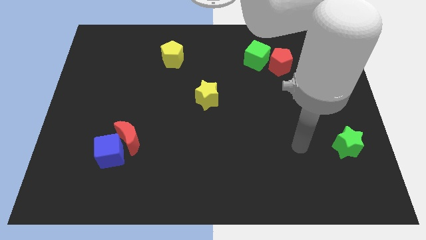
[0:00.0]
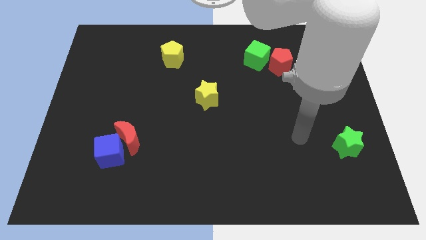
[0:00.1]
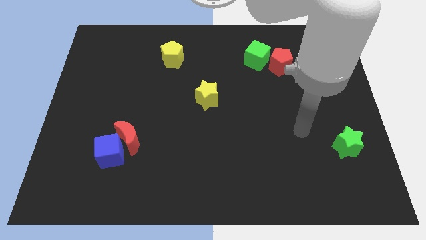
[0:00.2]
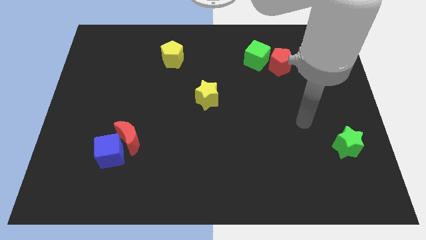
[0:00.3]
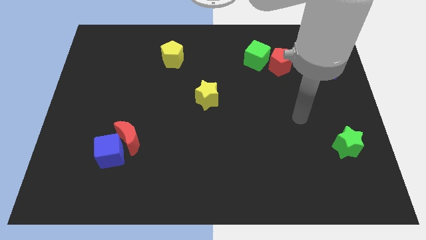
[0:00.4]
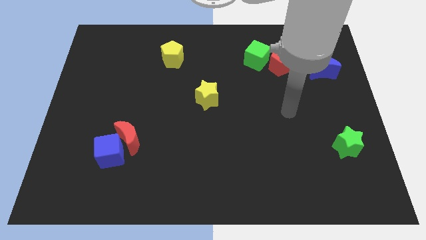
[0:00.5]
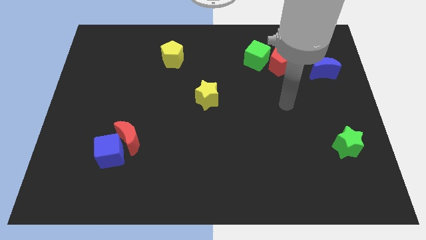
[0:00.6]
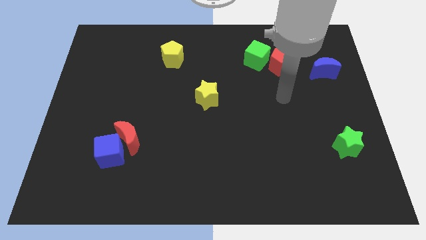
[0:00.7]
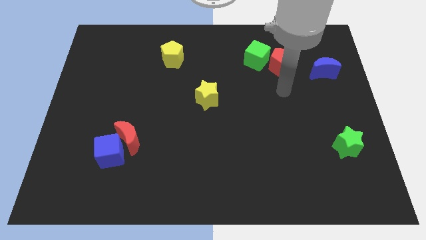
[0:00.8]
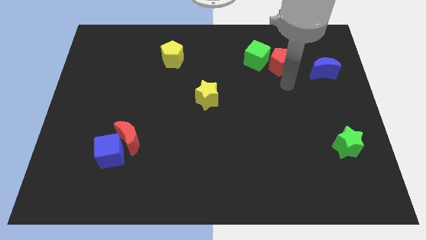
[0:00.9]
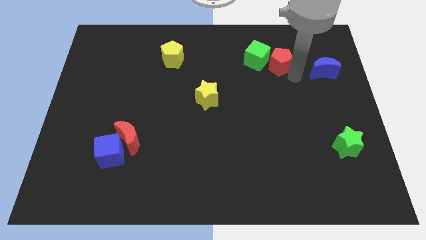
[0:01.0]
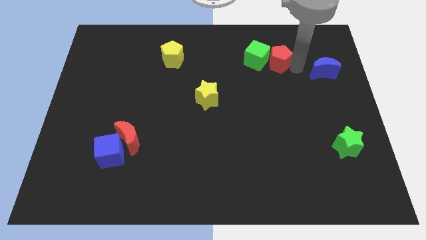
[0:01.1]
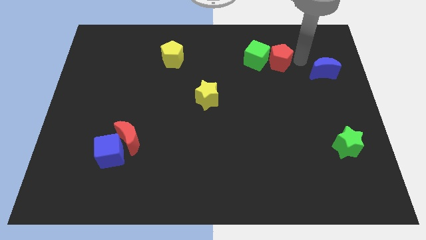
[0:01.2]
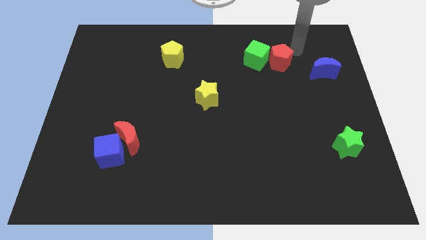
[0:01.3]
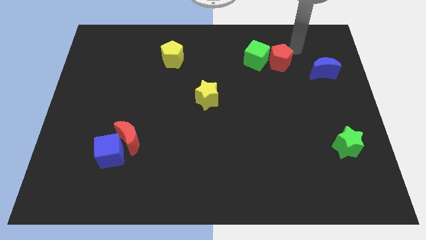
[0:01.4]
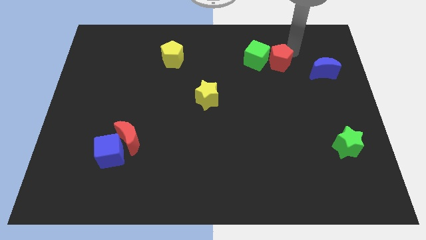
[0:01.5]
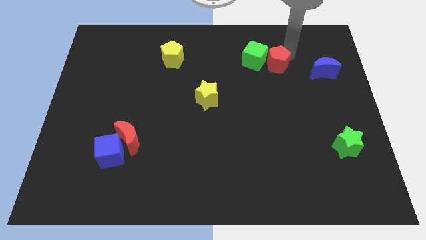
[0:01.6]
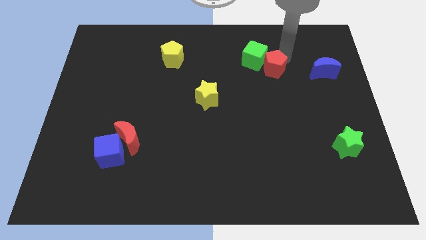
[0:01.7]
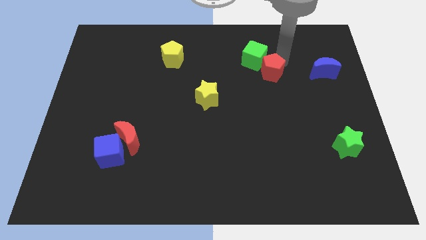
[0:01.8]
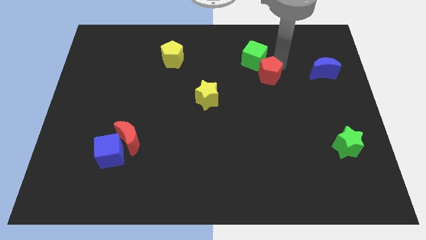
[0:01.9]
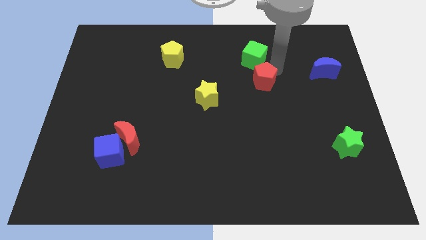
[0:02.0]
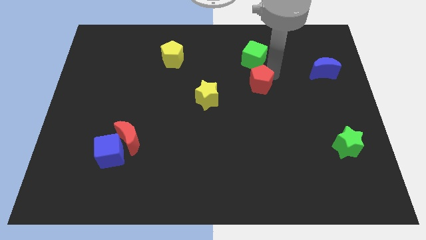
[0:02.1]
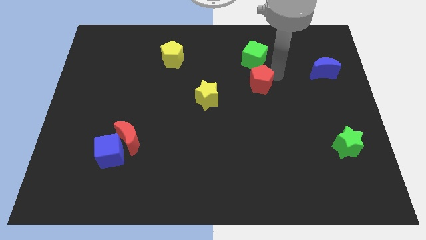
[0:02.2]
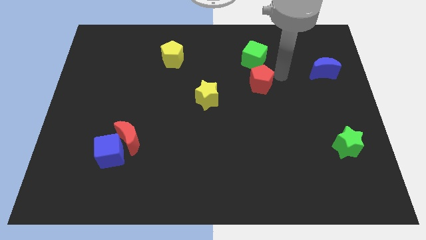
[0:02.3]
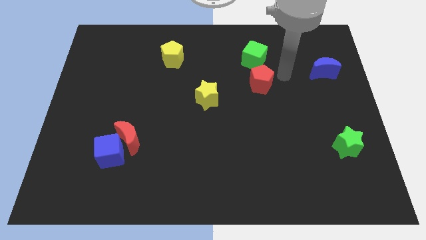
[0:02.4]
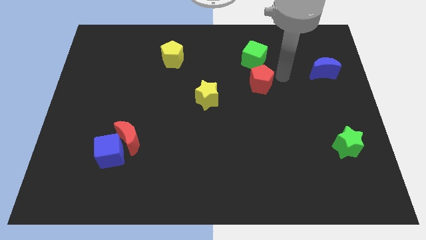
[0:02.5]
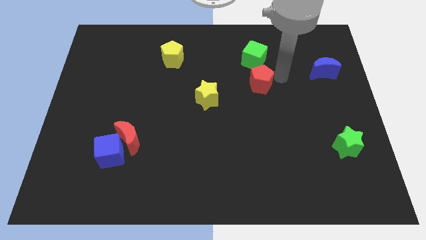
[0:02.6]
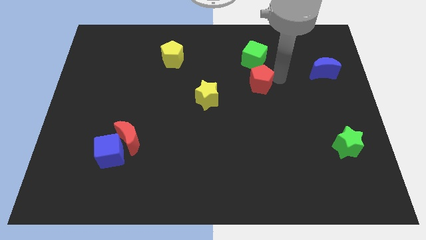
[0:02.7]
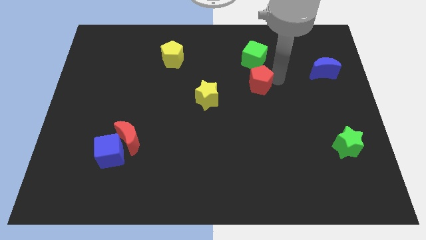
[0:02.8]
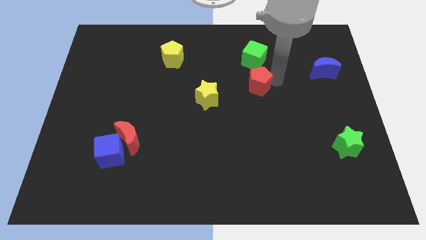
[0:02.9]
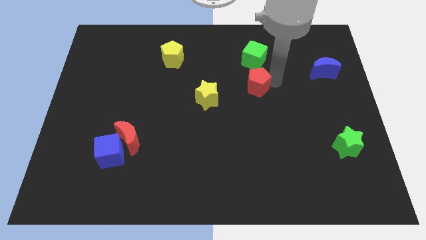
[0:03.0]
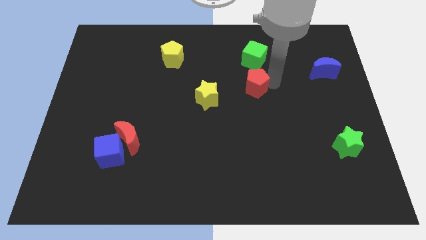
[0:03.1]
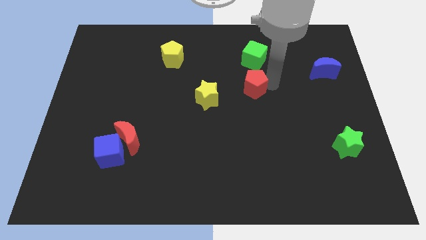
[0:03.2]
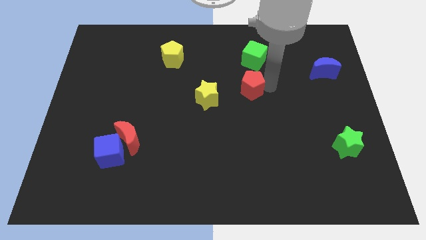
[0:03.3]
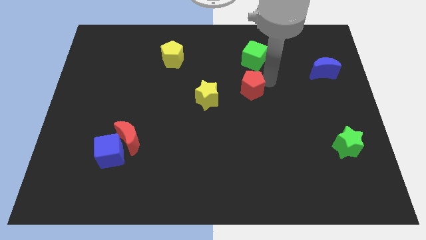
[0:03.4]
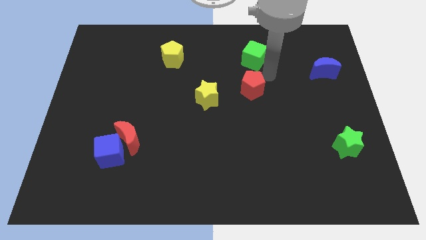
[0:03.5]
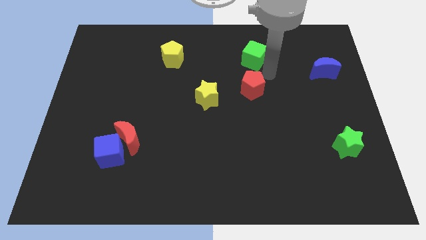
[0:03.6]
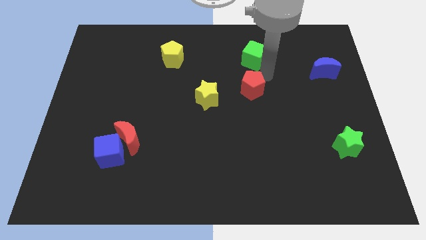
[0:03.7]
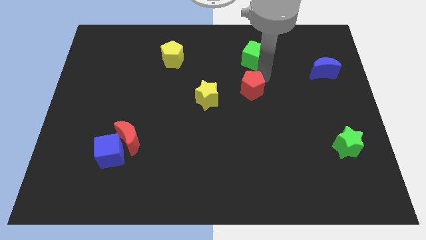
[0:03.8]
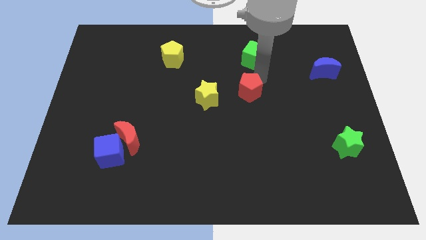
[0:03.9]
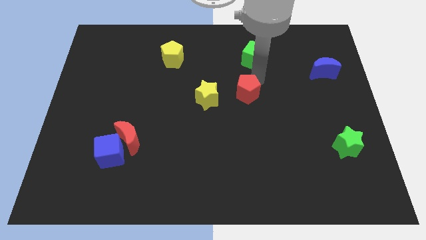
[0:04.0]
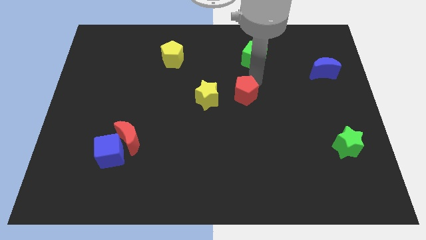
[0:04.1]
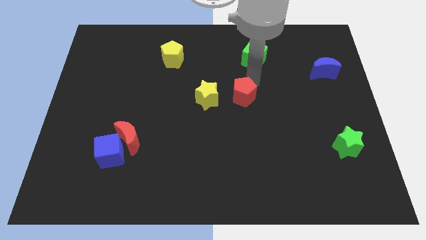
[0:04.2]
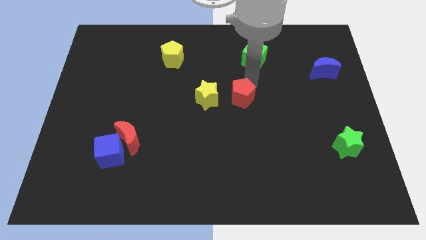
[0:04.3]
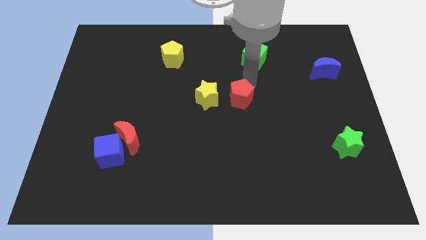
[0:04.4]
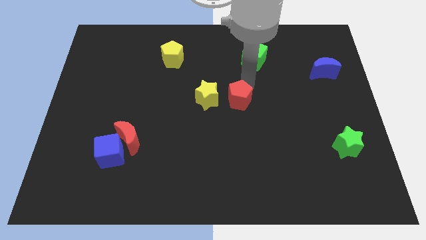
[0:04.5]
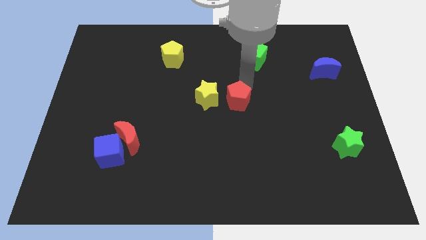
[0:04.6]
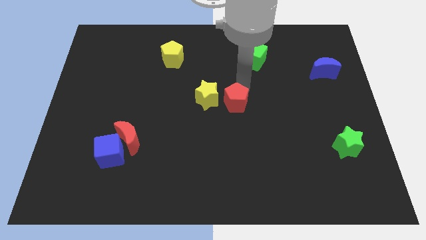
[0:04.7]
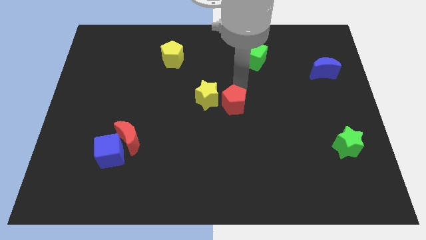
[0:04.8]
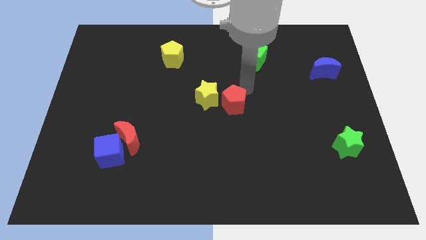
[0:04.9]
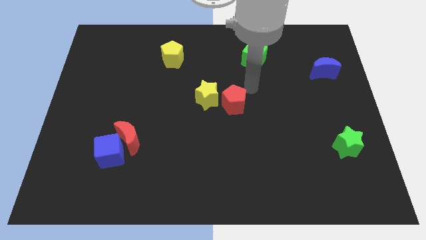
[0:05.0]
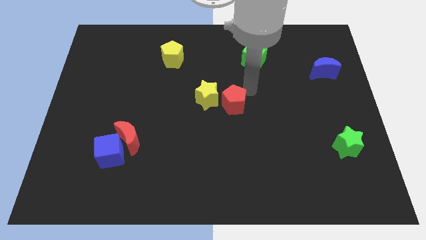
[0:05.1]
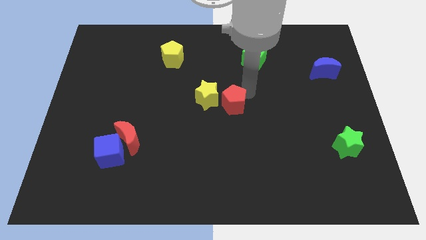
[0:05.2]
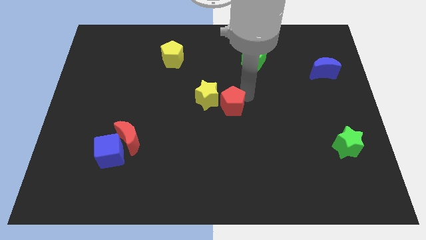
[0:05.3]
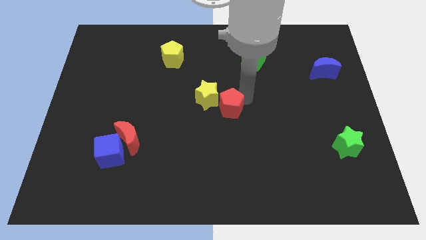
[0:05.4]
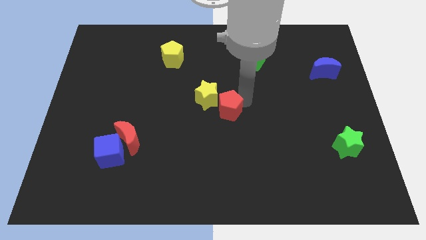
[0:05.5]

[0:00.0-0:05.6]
push the red pentagon down and to the left

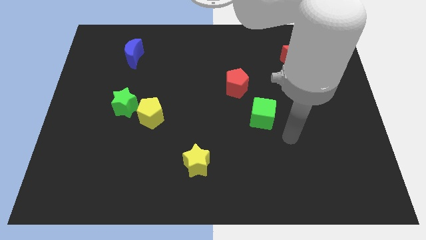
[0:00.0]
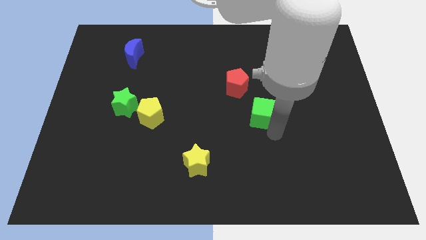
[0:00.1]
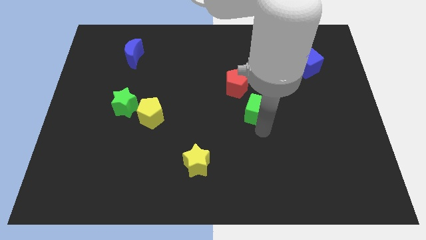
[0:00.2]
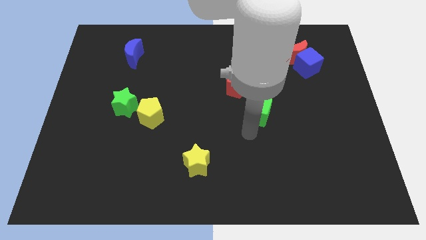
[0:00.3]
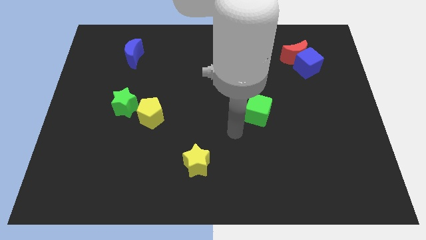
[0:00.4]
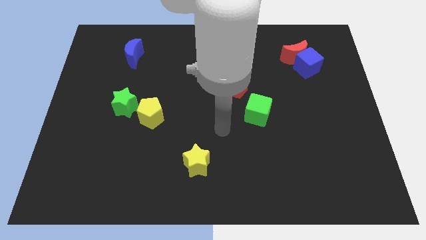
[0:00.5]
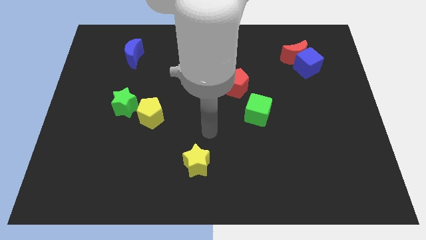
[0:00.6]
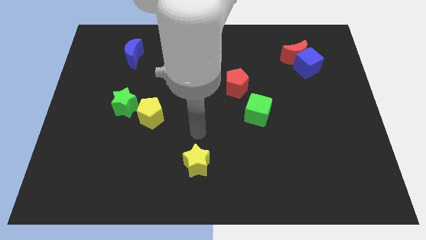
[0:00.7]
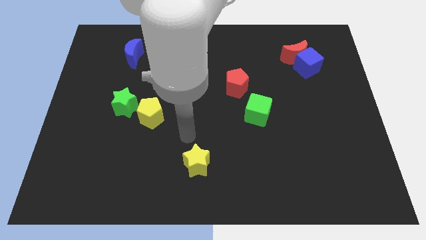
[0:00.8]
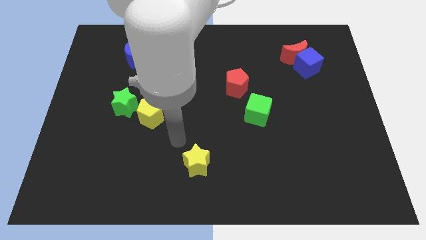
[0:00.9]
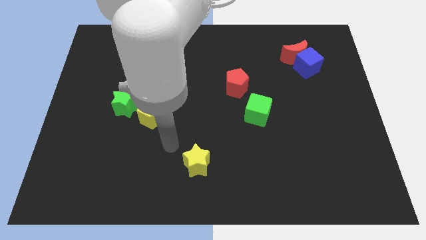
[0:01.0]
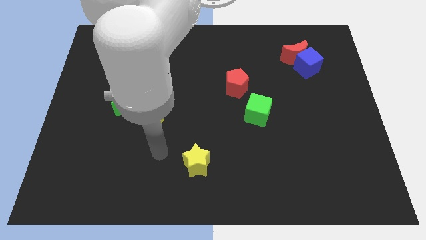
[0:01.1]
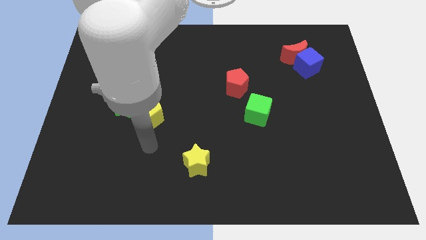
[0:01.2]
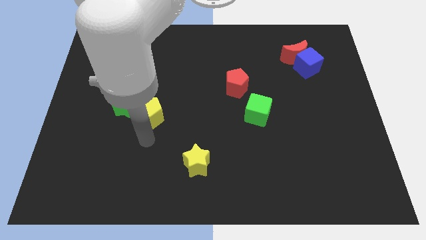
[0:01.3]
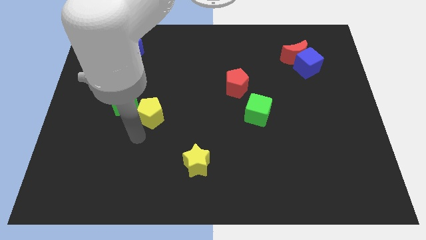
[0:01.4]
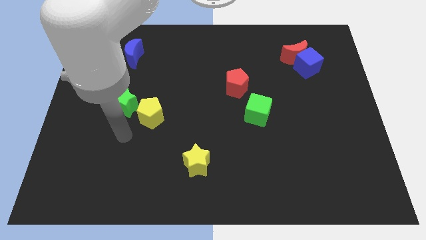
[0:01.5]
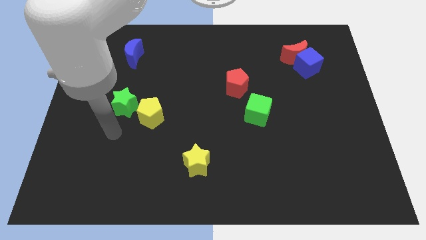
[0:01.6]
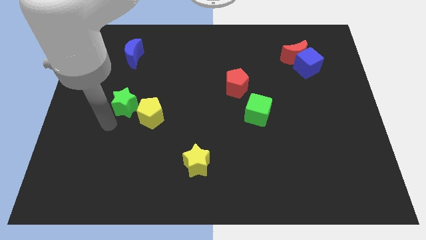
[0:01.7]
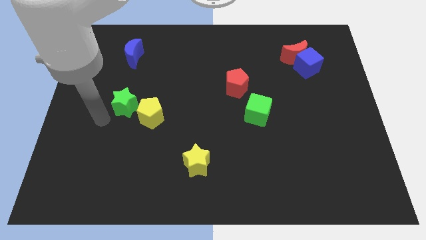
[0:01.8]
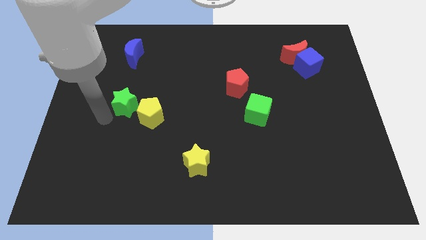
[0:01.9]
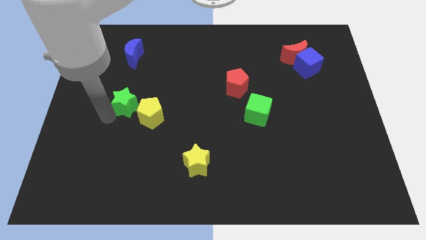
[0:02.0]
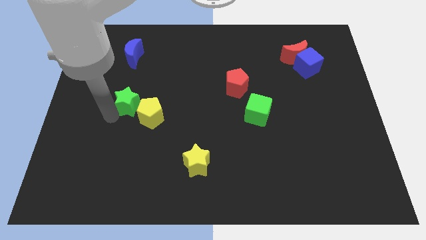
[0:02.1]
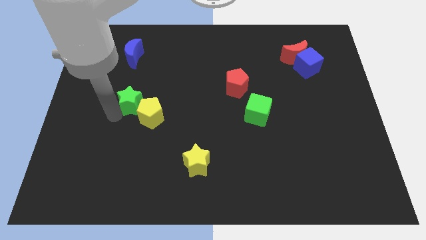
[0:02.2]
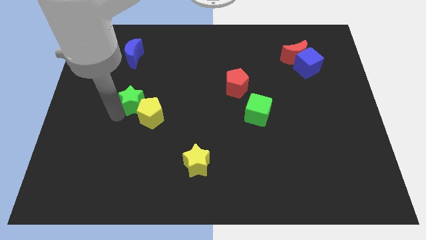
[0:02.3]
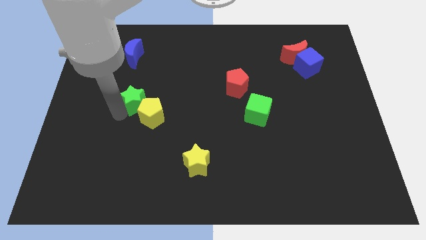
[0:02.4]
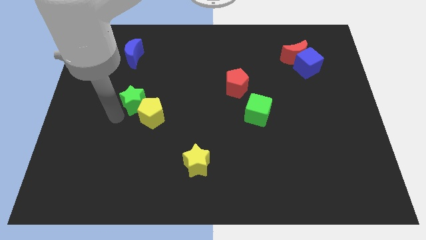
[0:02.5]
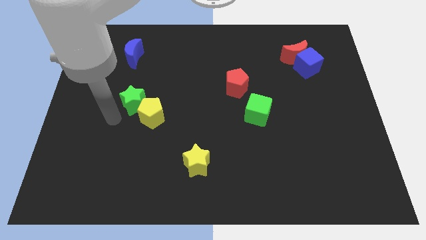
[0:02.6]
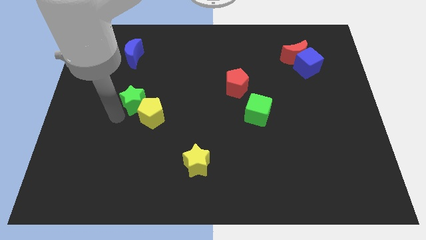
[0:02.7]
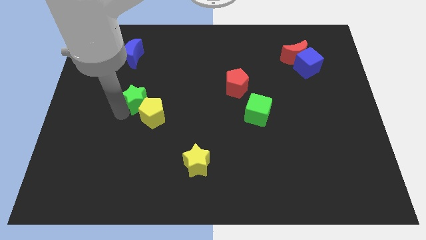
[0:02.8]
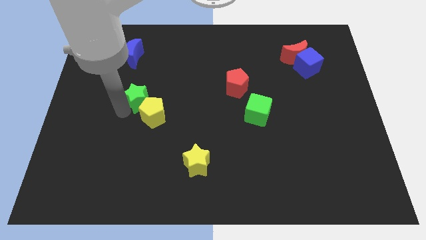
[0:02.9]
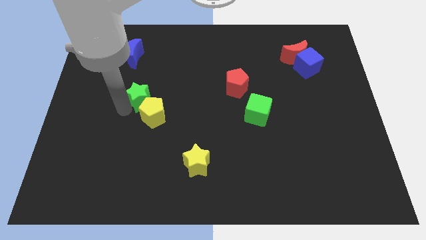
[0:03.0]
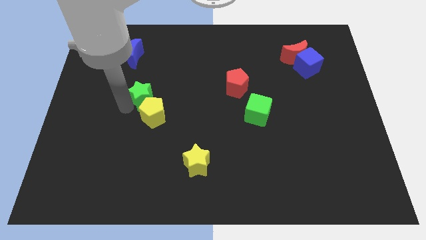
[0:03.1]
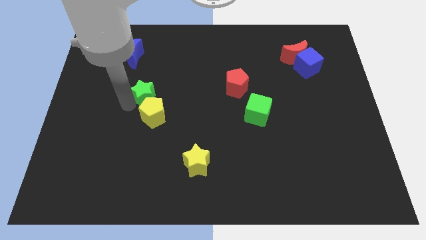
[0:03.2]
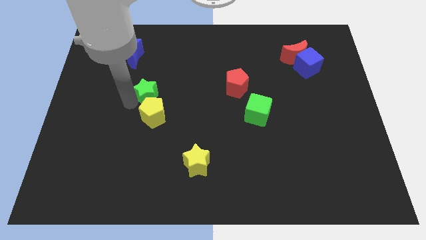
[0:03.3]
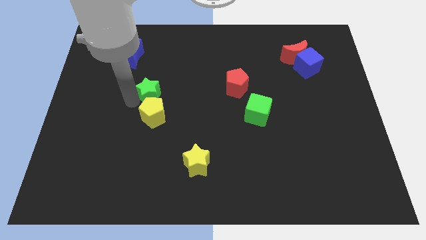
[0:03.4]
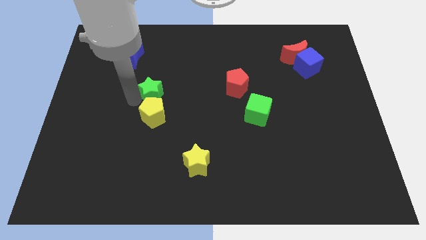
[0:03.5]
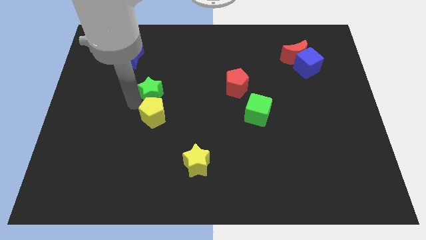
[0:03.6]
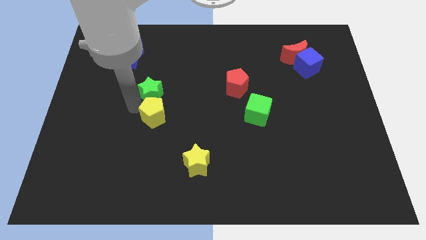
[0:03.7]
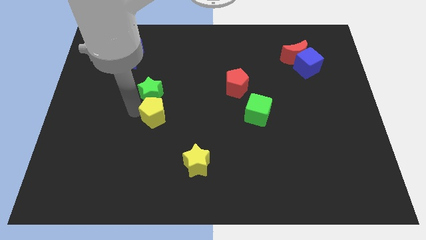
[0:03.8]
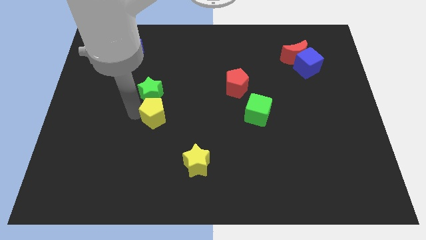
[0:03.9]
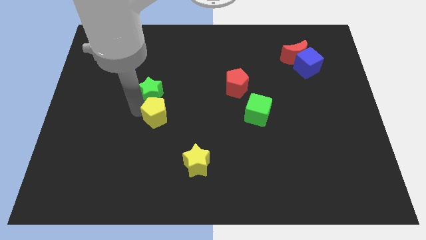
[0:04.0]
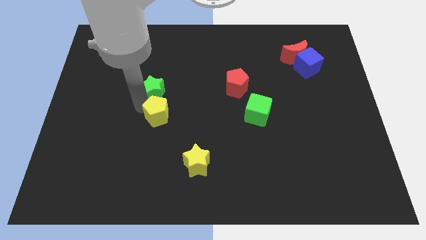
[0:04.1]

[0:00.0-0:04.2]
push the green star a little bit upwards and then to the right
